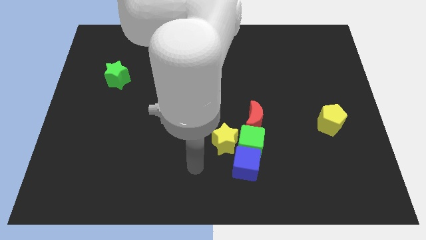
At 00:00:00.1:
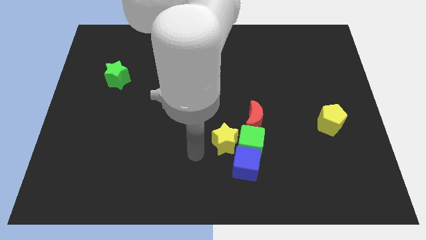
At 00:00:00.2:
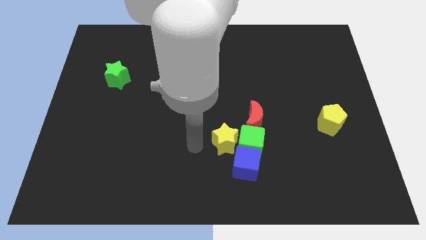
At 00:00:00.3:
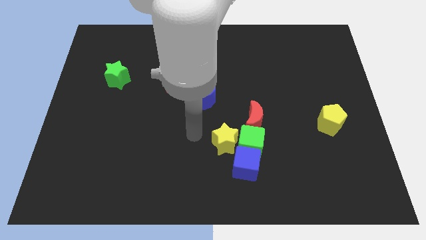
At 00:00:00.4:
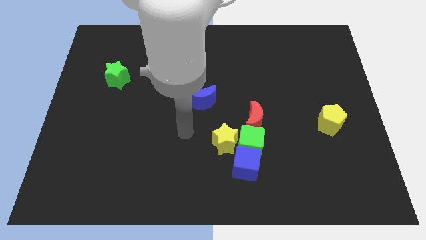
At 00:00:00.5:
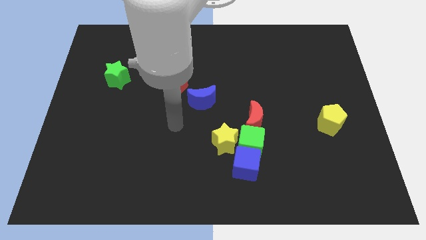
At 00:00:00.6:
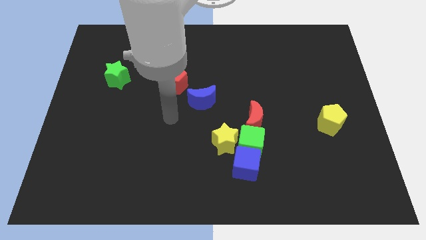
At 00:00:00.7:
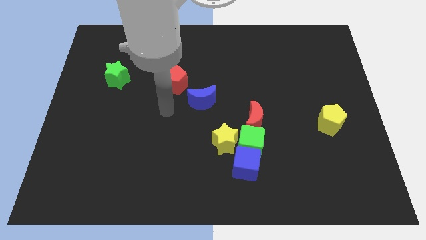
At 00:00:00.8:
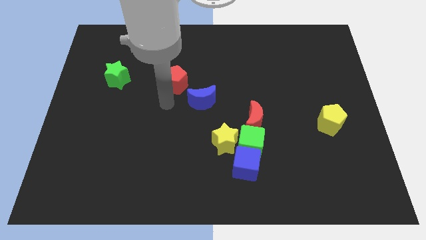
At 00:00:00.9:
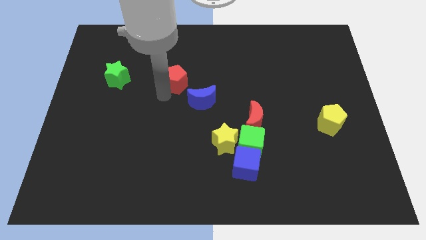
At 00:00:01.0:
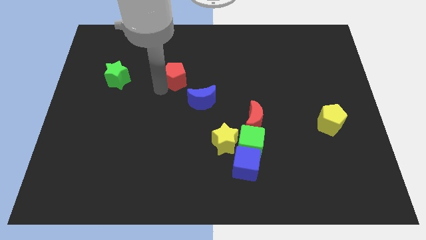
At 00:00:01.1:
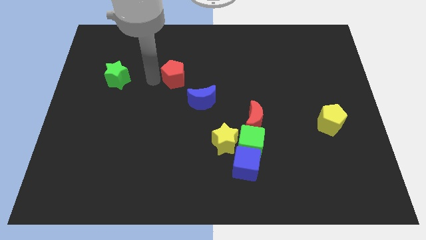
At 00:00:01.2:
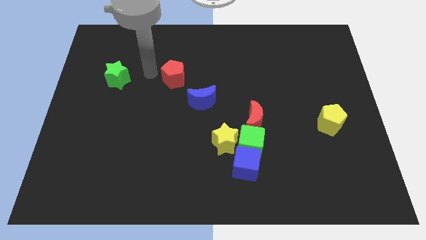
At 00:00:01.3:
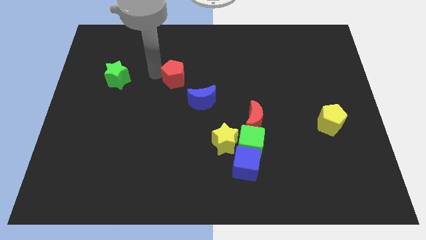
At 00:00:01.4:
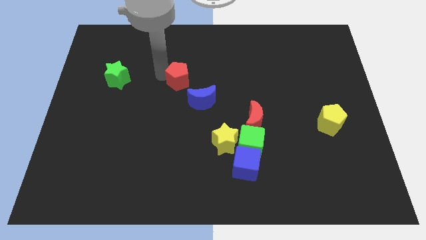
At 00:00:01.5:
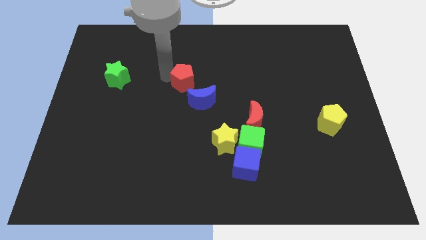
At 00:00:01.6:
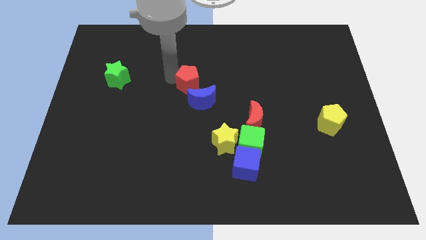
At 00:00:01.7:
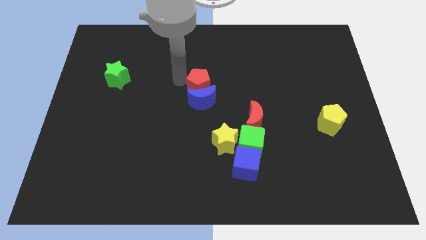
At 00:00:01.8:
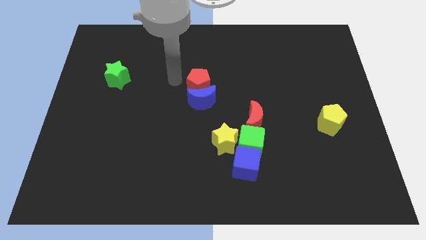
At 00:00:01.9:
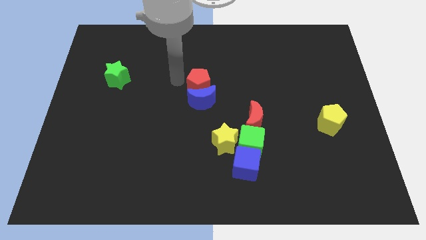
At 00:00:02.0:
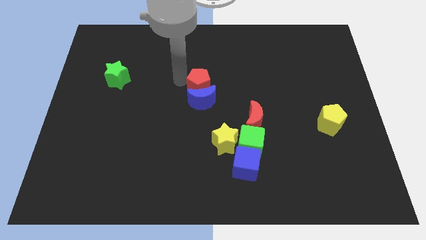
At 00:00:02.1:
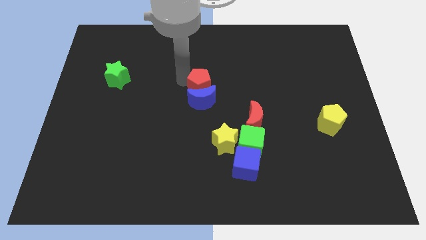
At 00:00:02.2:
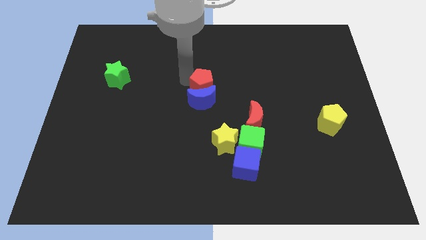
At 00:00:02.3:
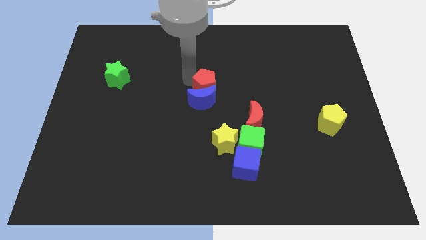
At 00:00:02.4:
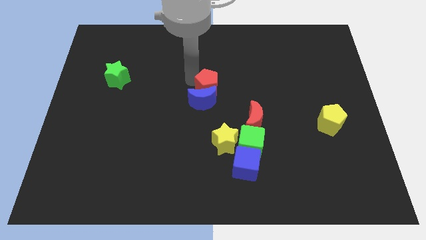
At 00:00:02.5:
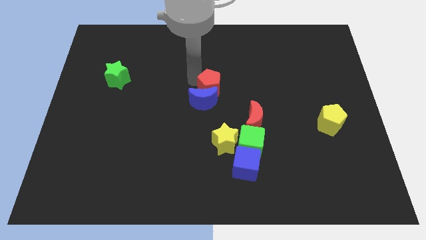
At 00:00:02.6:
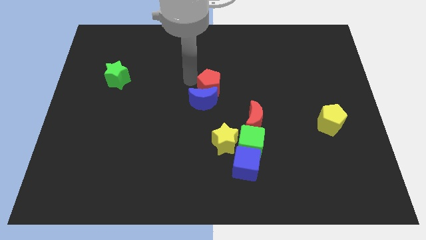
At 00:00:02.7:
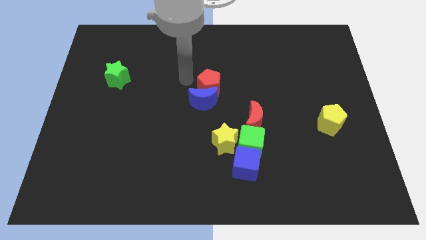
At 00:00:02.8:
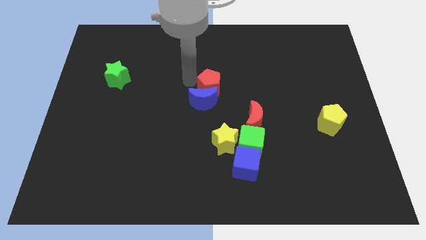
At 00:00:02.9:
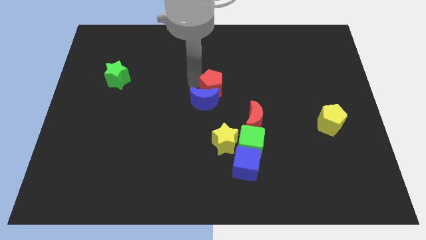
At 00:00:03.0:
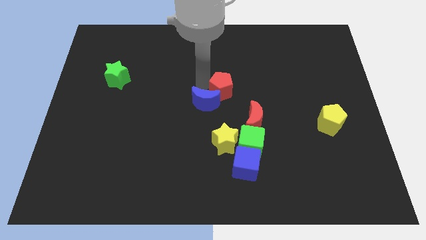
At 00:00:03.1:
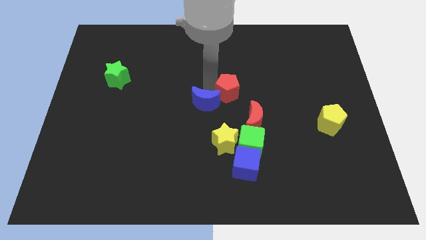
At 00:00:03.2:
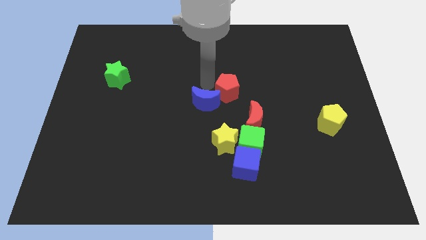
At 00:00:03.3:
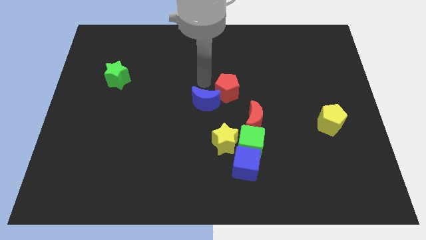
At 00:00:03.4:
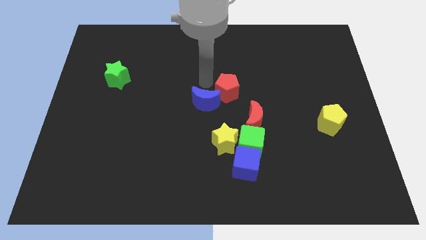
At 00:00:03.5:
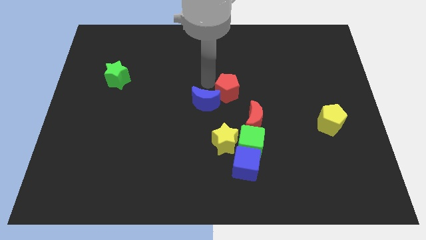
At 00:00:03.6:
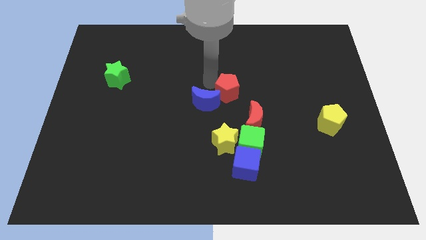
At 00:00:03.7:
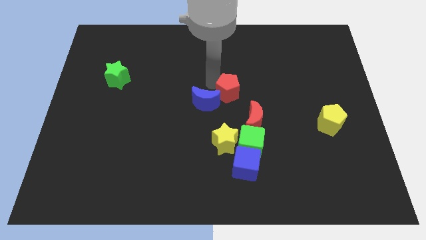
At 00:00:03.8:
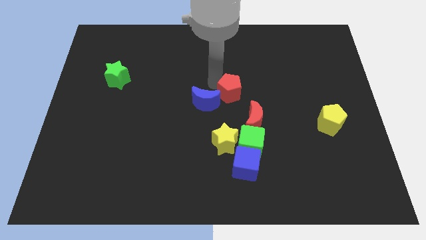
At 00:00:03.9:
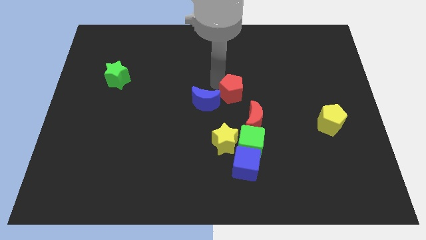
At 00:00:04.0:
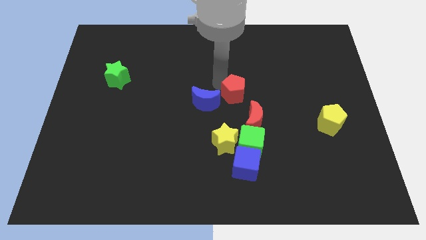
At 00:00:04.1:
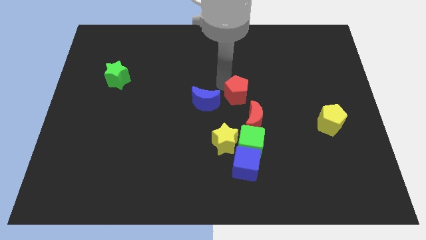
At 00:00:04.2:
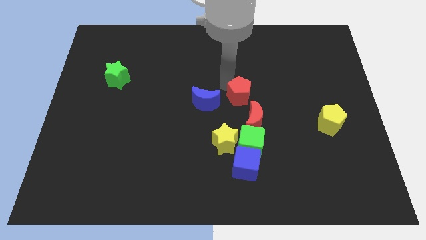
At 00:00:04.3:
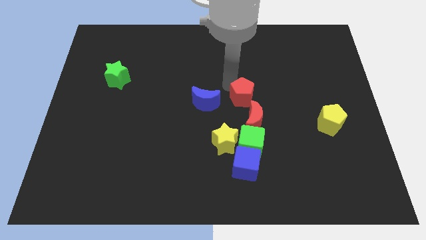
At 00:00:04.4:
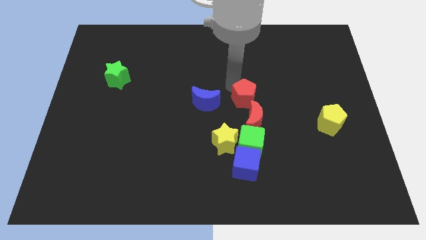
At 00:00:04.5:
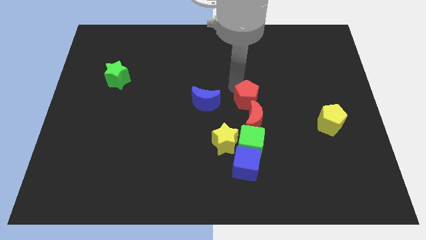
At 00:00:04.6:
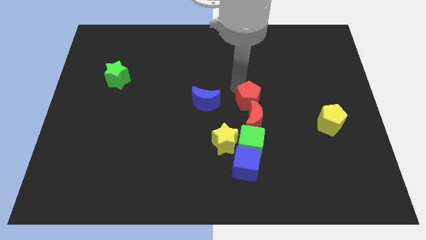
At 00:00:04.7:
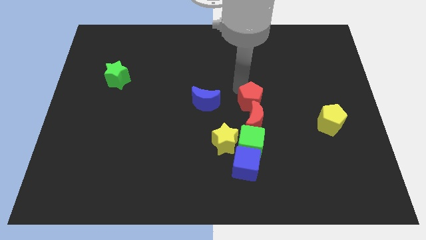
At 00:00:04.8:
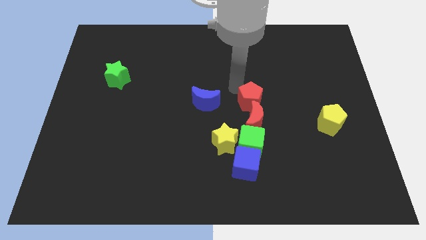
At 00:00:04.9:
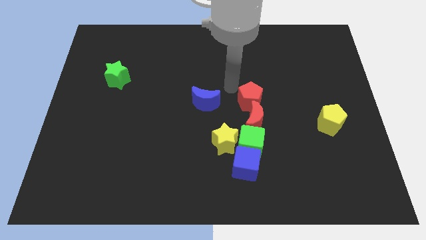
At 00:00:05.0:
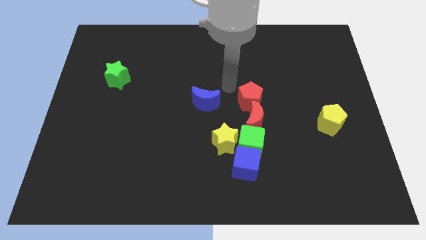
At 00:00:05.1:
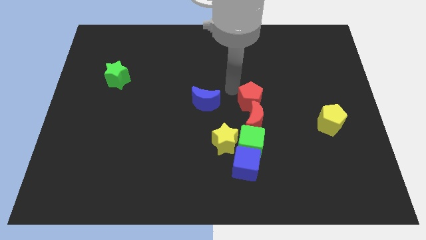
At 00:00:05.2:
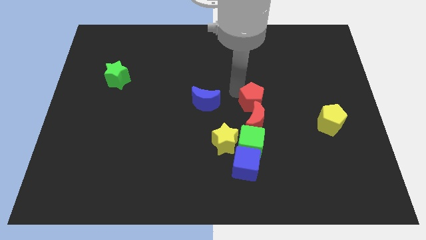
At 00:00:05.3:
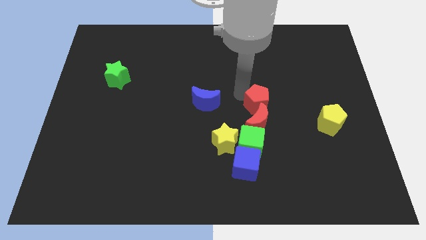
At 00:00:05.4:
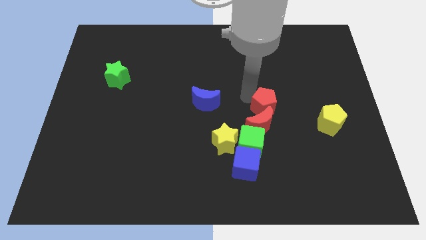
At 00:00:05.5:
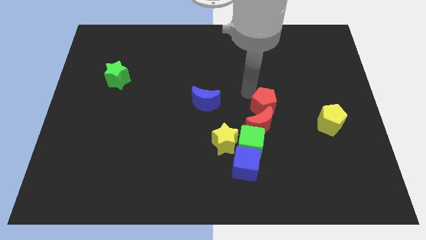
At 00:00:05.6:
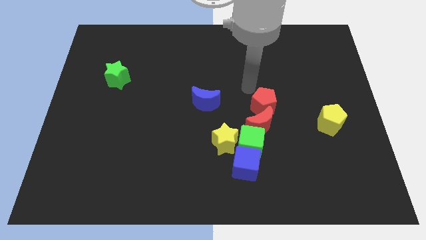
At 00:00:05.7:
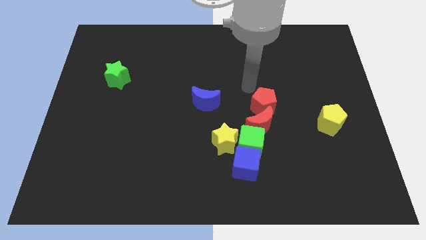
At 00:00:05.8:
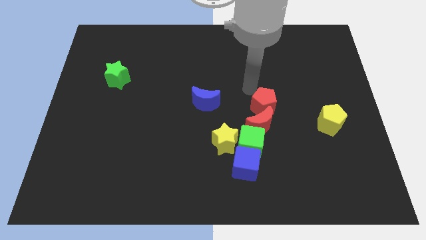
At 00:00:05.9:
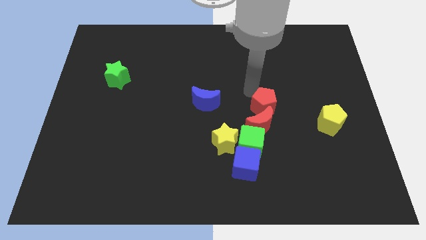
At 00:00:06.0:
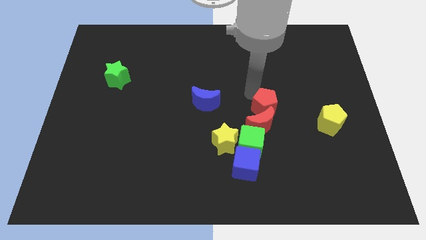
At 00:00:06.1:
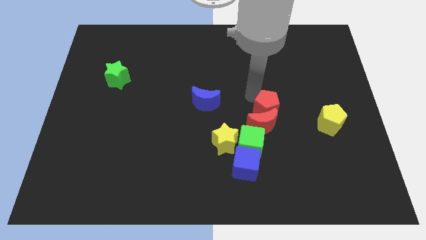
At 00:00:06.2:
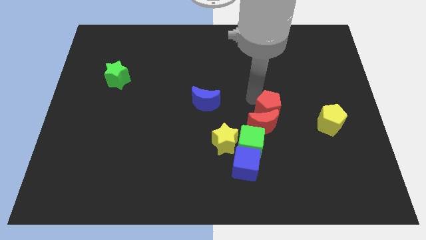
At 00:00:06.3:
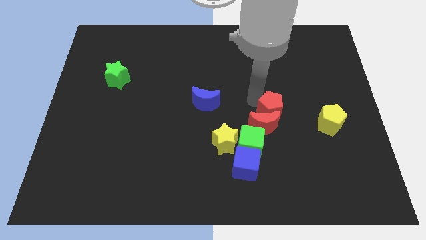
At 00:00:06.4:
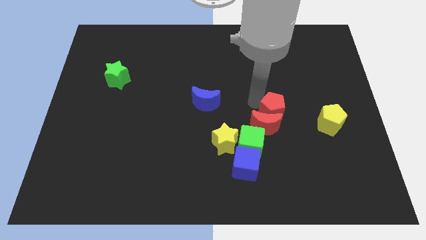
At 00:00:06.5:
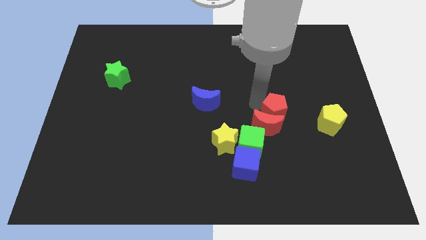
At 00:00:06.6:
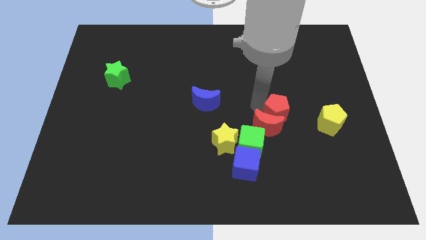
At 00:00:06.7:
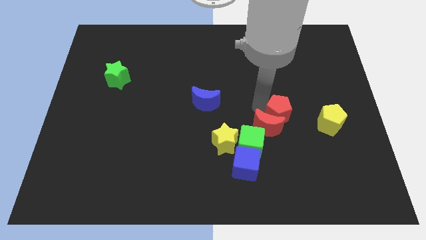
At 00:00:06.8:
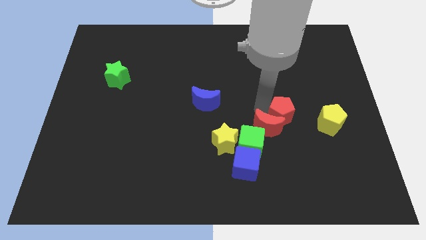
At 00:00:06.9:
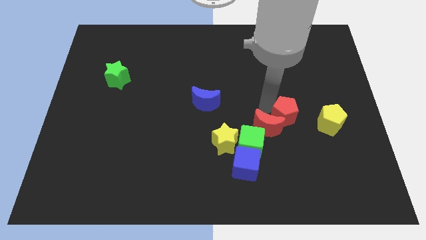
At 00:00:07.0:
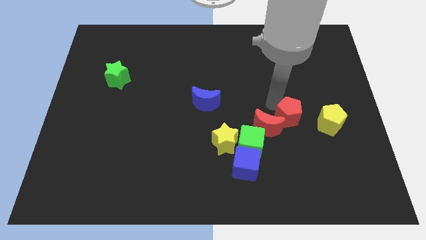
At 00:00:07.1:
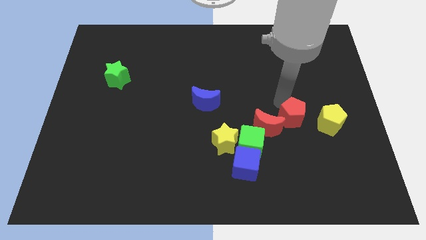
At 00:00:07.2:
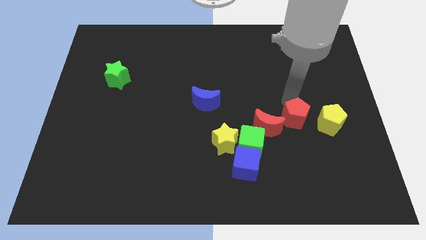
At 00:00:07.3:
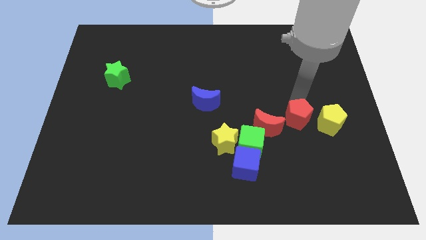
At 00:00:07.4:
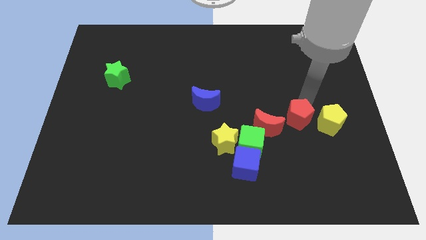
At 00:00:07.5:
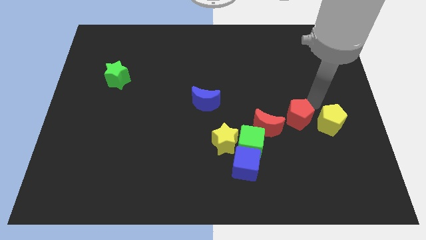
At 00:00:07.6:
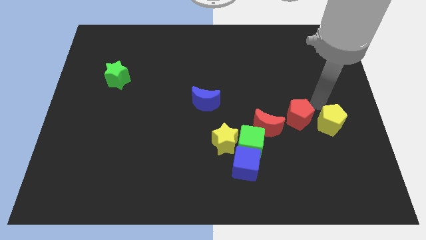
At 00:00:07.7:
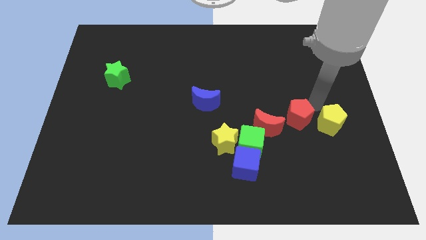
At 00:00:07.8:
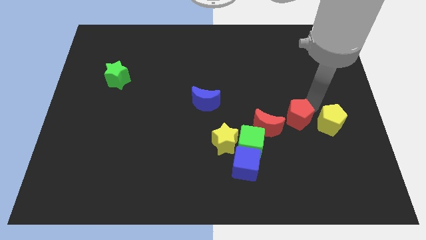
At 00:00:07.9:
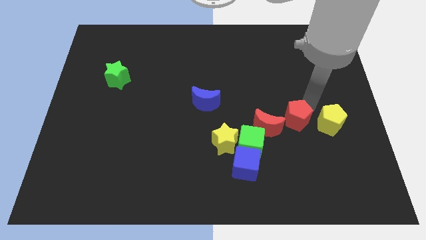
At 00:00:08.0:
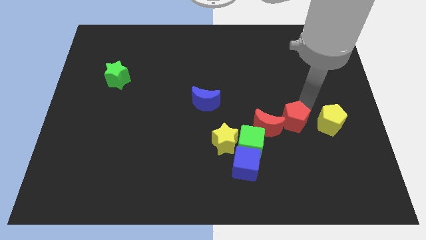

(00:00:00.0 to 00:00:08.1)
move the red pentagon down and then to the right
